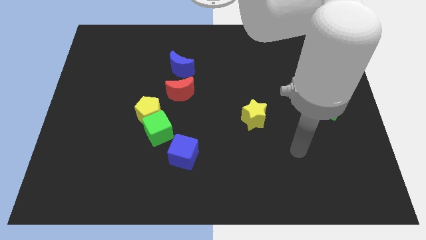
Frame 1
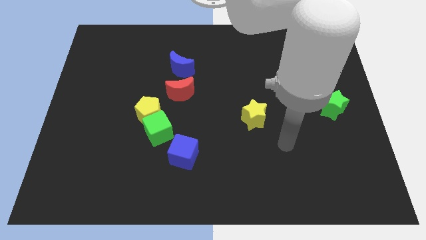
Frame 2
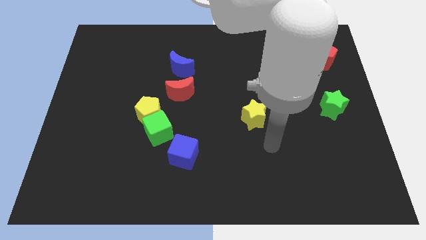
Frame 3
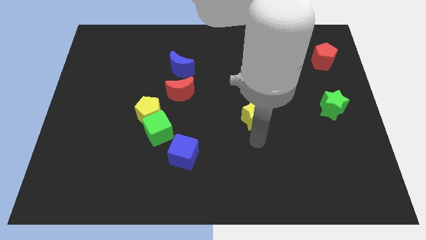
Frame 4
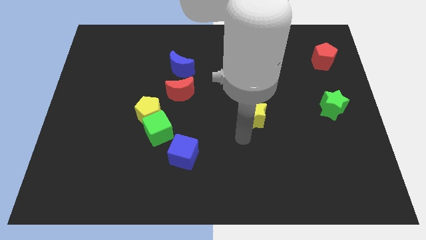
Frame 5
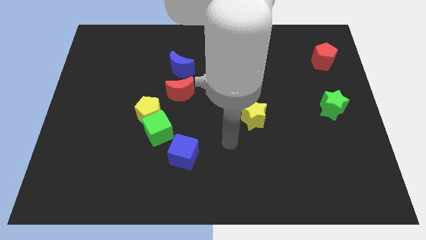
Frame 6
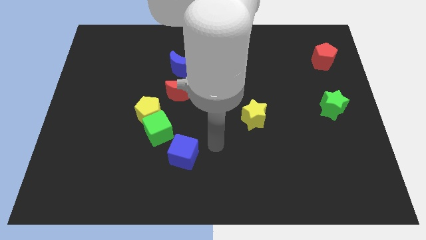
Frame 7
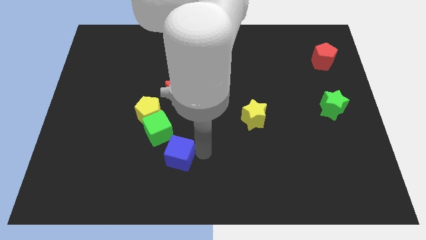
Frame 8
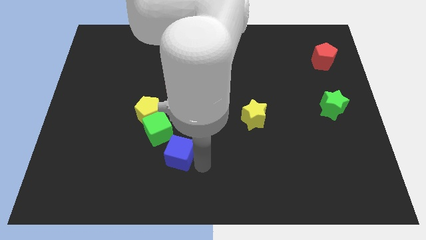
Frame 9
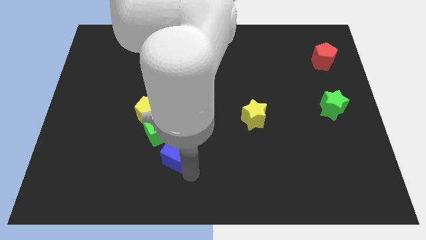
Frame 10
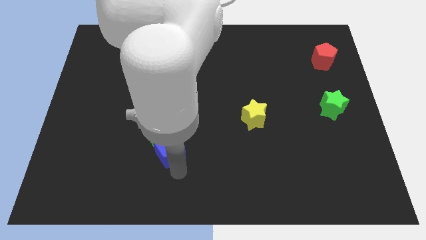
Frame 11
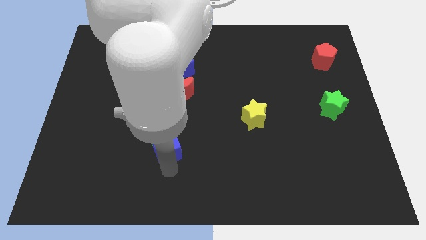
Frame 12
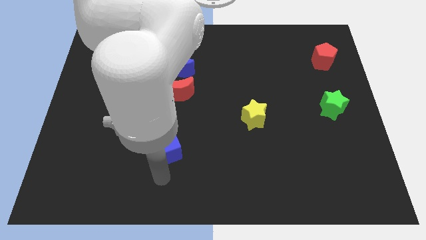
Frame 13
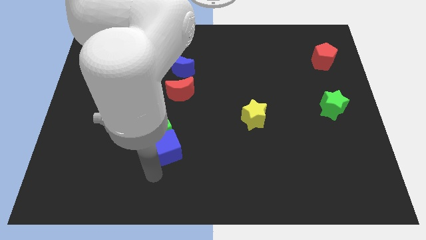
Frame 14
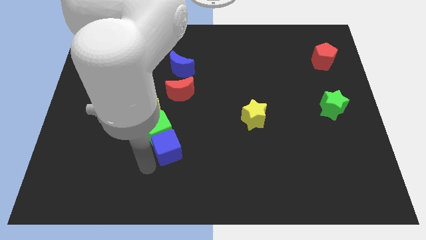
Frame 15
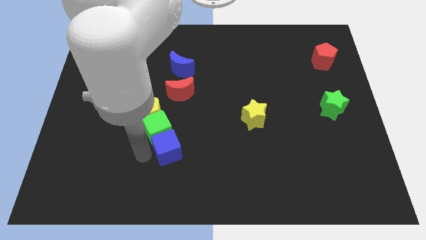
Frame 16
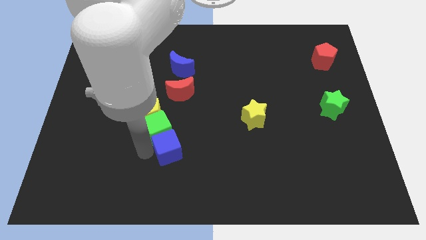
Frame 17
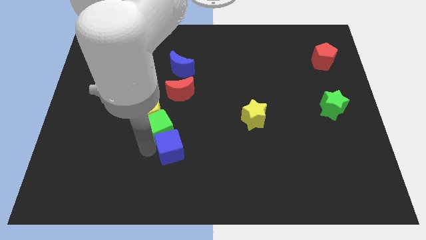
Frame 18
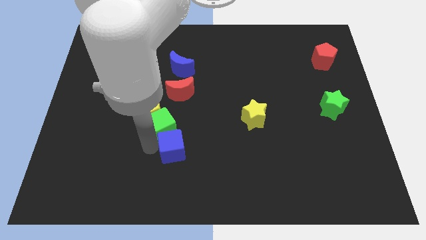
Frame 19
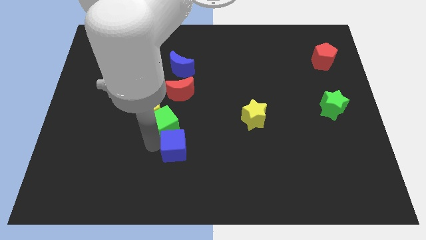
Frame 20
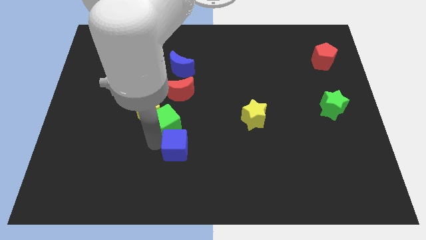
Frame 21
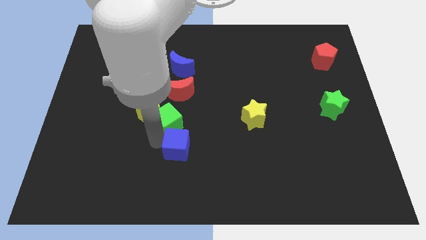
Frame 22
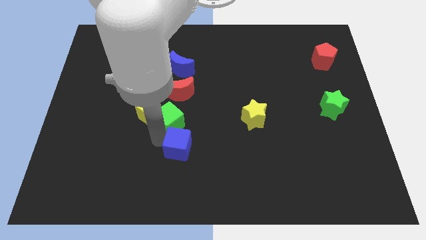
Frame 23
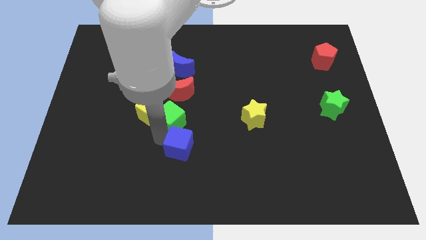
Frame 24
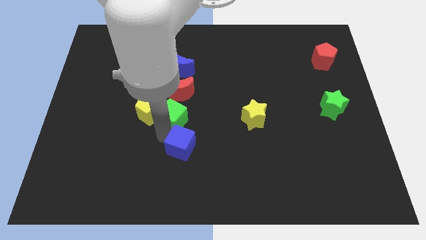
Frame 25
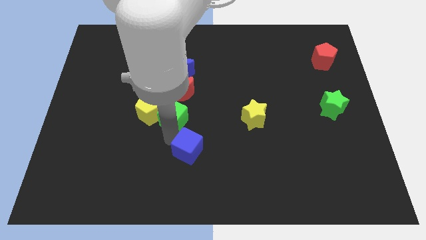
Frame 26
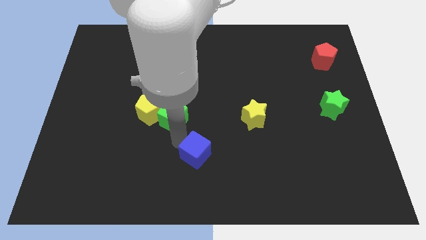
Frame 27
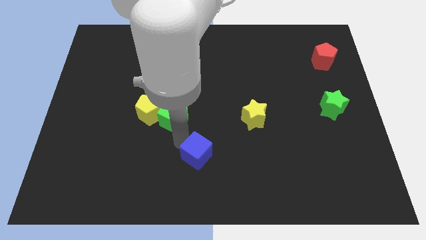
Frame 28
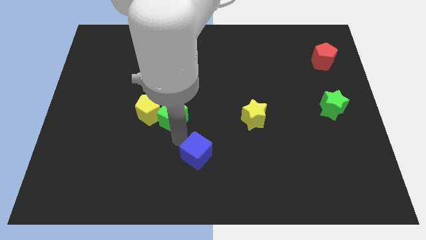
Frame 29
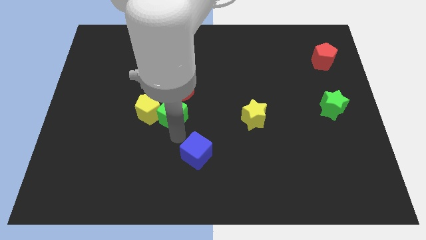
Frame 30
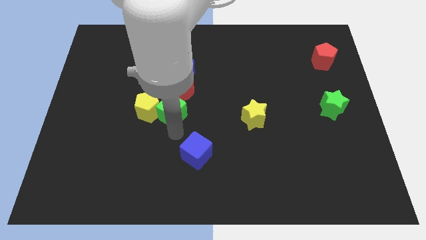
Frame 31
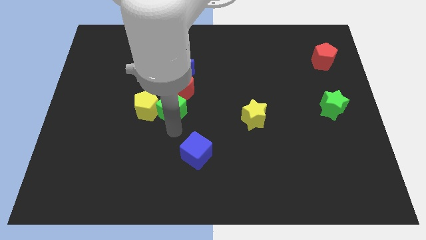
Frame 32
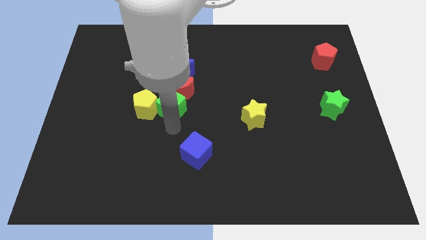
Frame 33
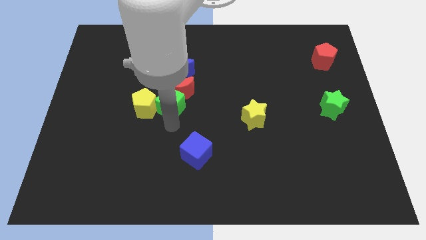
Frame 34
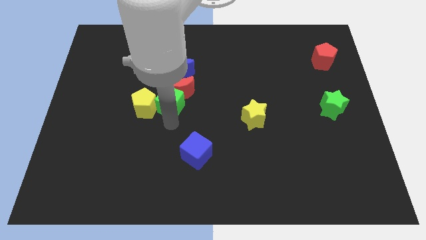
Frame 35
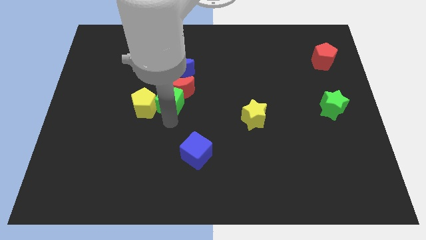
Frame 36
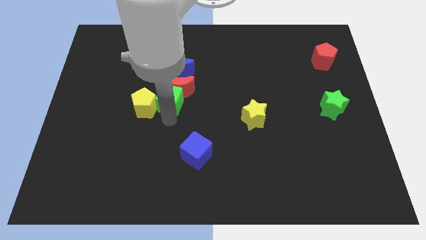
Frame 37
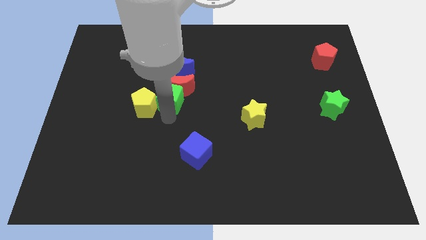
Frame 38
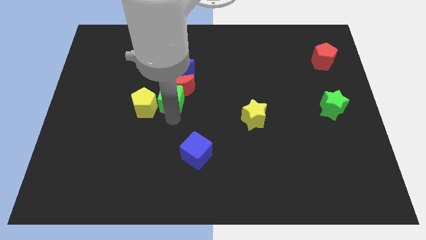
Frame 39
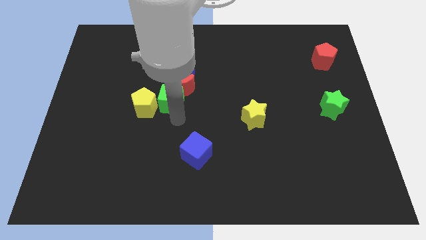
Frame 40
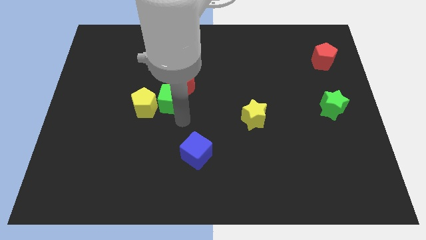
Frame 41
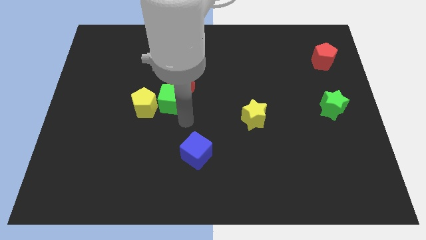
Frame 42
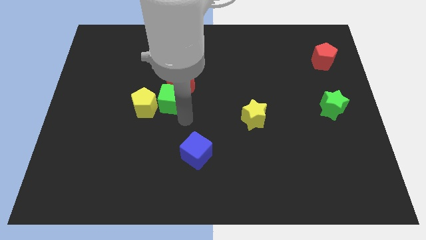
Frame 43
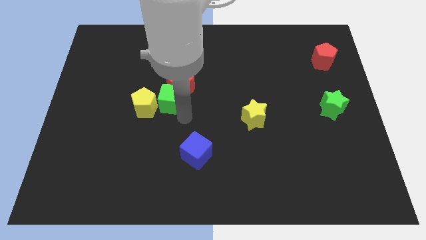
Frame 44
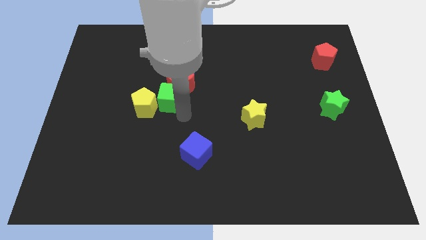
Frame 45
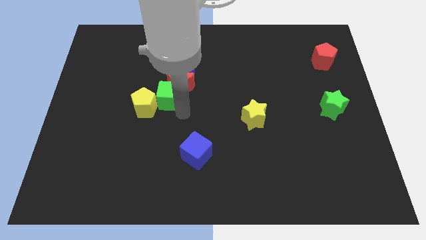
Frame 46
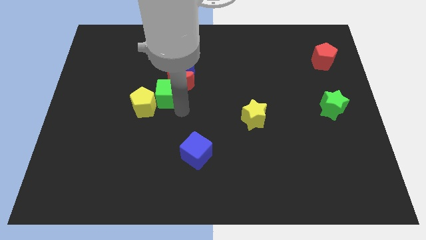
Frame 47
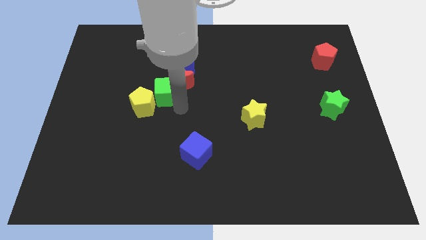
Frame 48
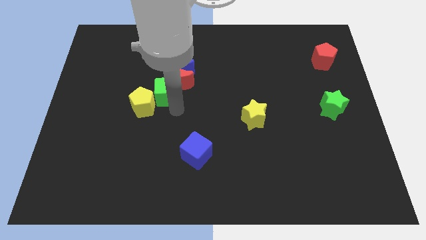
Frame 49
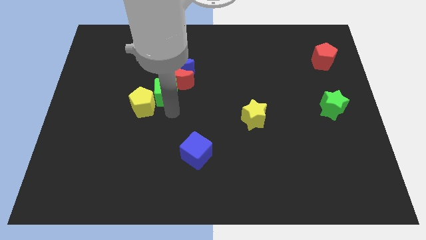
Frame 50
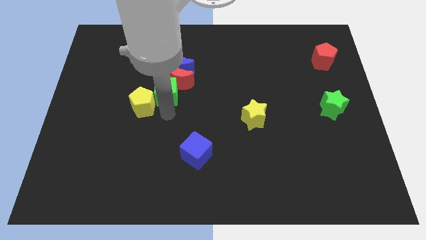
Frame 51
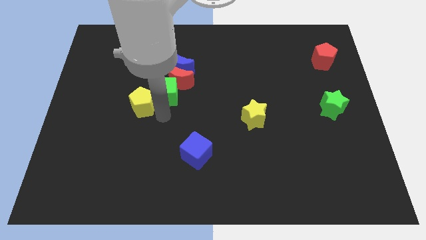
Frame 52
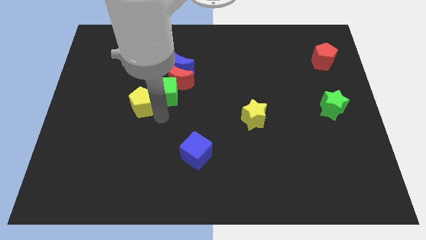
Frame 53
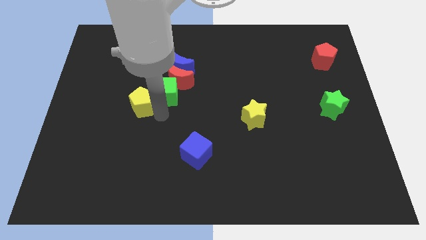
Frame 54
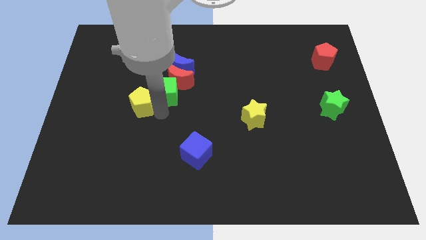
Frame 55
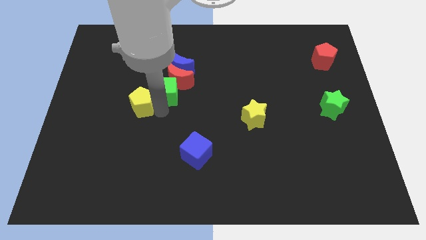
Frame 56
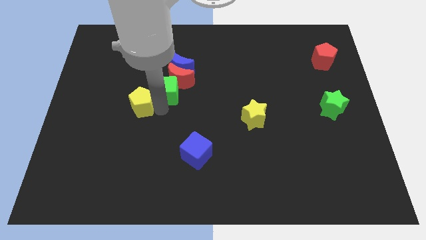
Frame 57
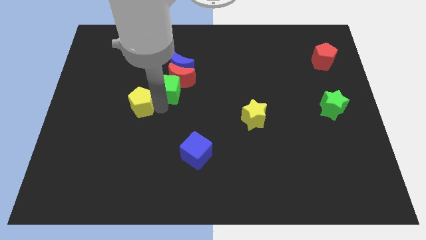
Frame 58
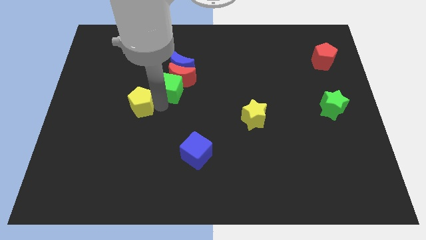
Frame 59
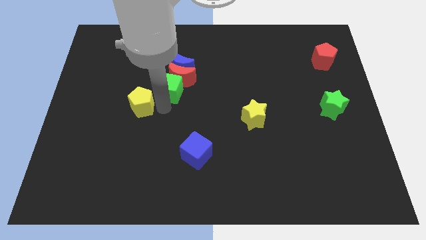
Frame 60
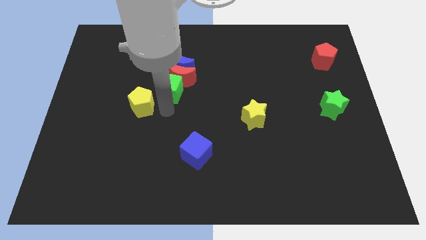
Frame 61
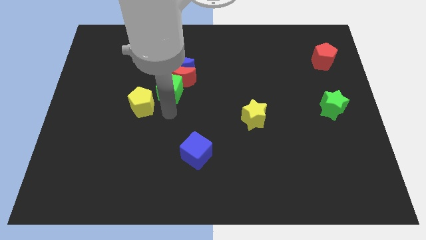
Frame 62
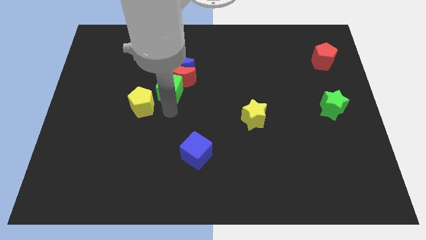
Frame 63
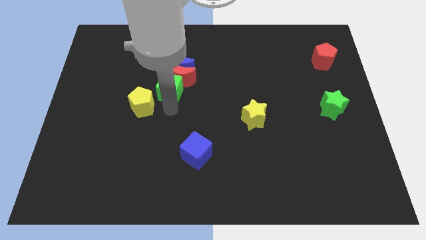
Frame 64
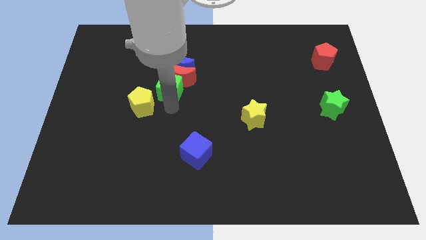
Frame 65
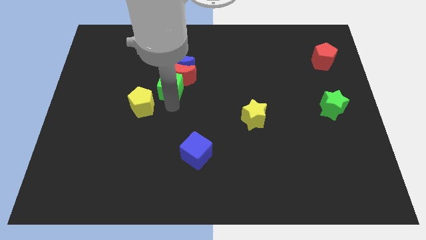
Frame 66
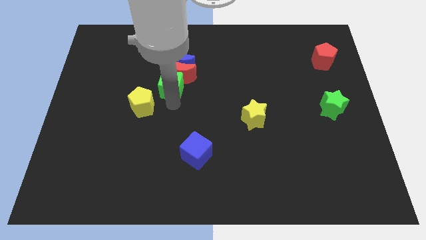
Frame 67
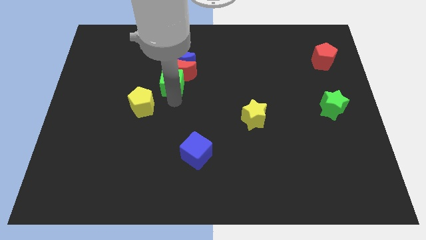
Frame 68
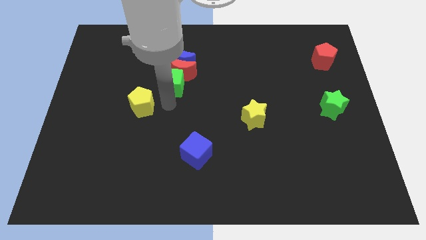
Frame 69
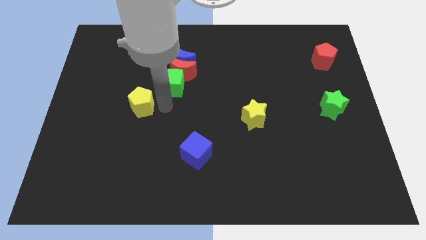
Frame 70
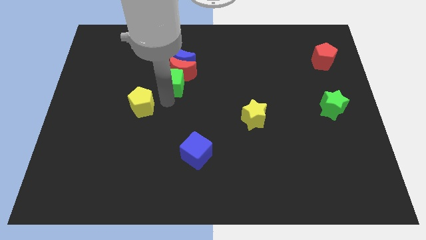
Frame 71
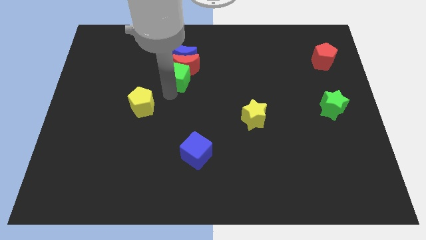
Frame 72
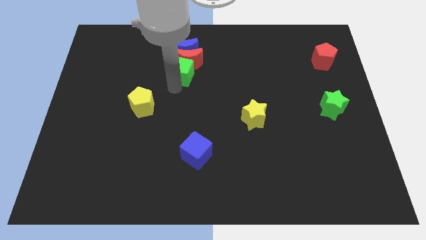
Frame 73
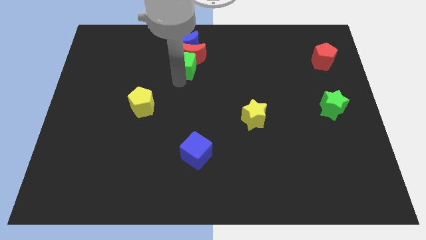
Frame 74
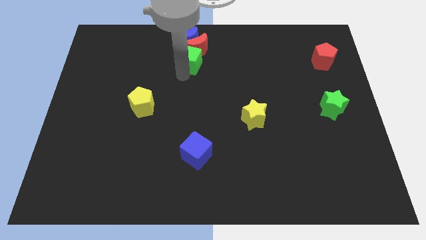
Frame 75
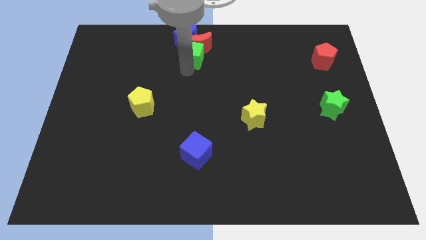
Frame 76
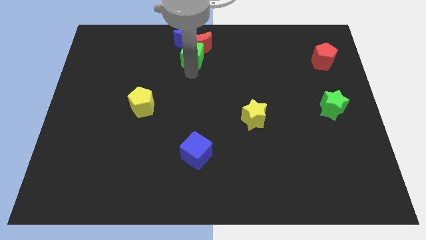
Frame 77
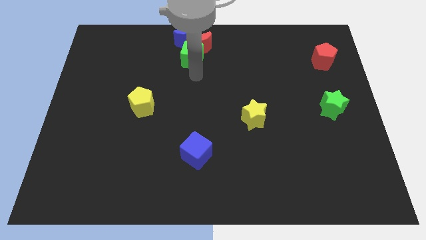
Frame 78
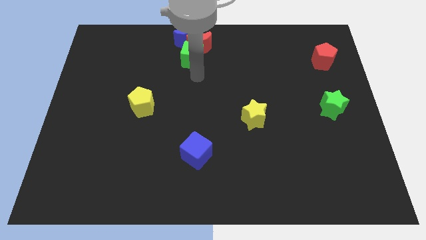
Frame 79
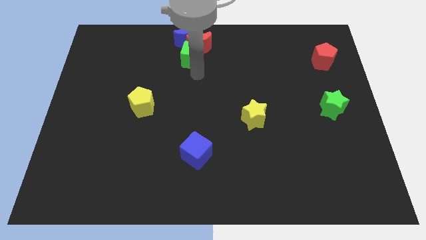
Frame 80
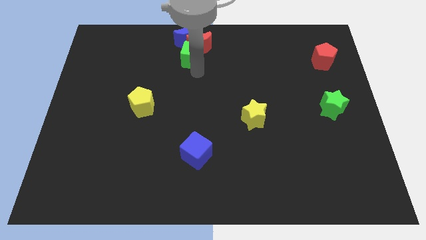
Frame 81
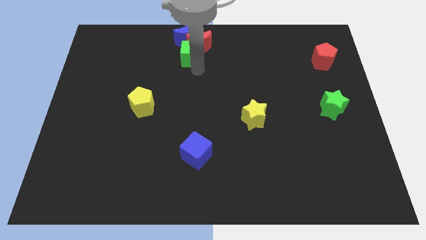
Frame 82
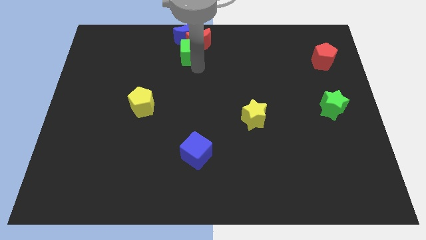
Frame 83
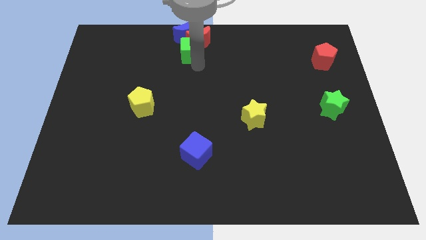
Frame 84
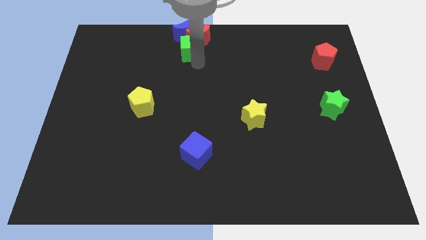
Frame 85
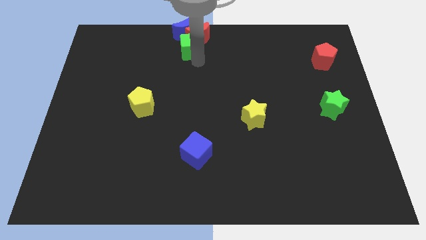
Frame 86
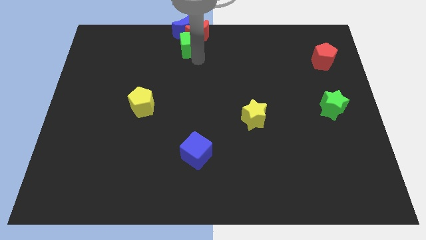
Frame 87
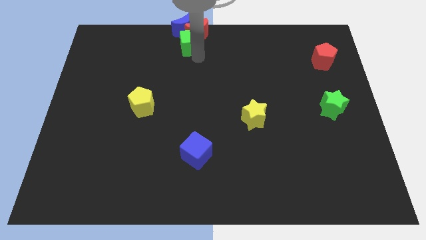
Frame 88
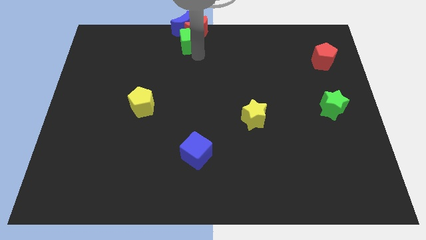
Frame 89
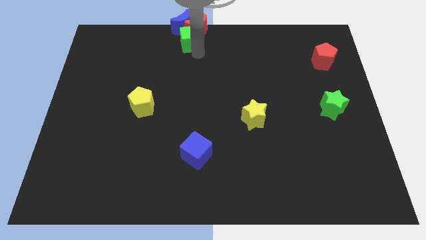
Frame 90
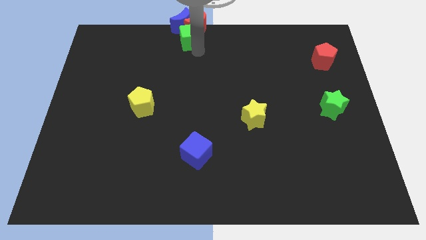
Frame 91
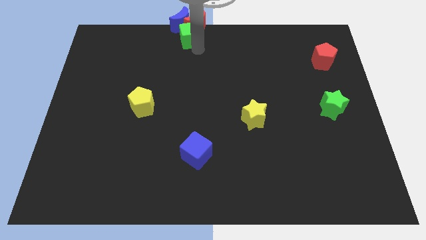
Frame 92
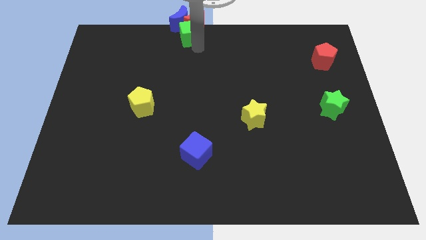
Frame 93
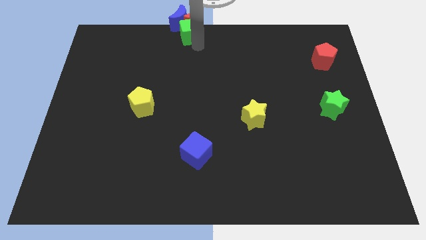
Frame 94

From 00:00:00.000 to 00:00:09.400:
put the green cube close to the blue moon
